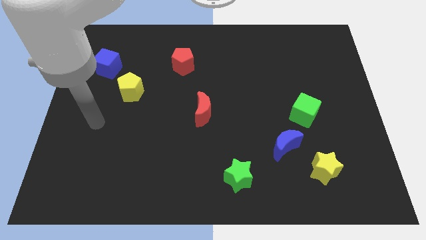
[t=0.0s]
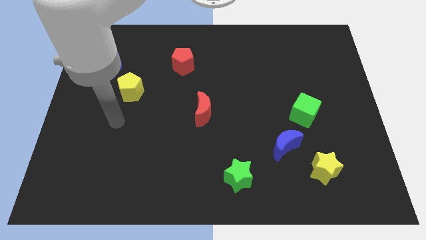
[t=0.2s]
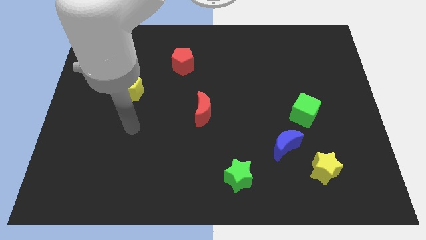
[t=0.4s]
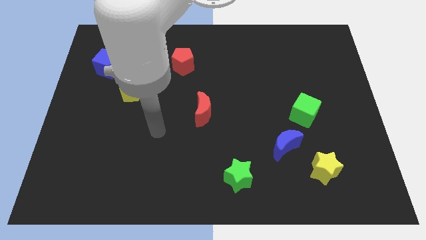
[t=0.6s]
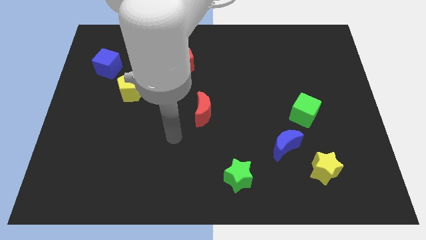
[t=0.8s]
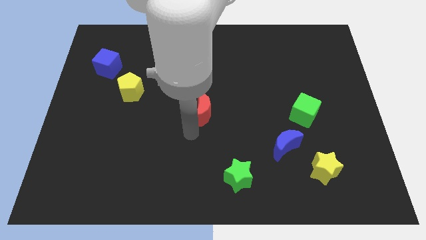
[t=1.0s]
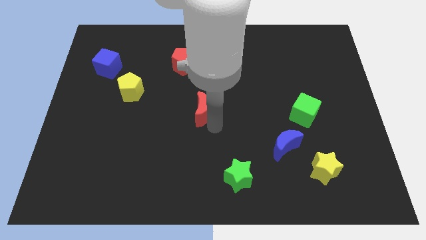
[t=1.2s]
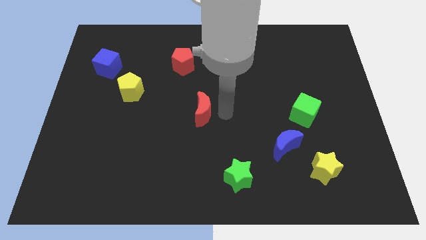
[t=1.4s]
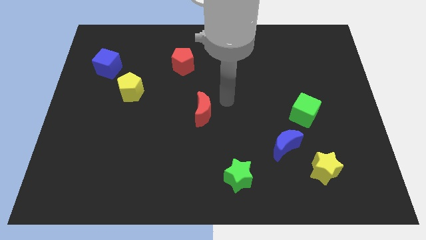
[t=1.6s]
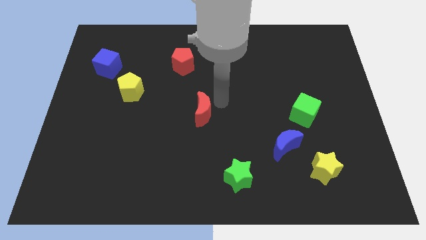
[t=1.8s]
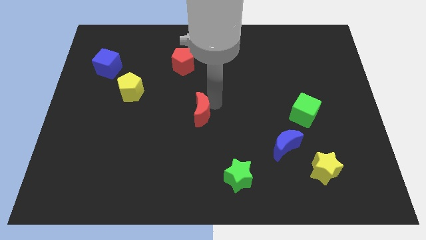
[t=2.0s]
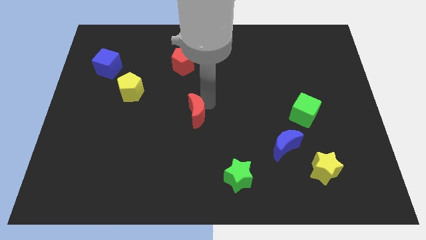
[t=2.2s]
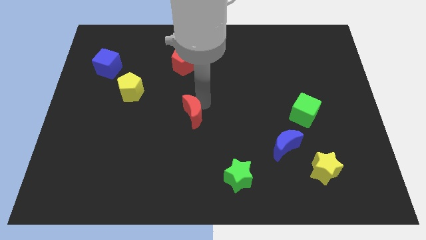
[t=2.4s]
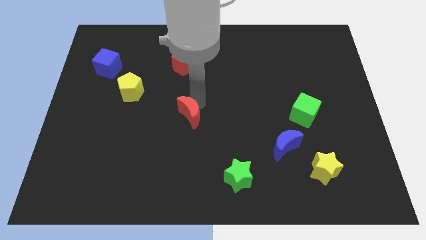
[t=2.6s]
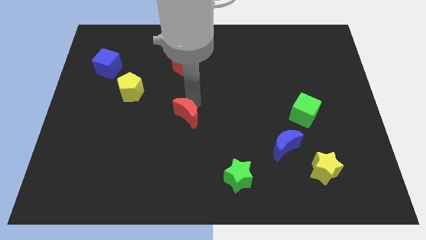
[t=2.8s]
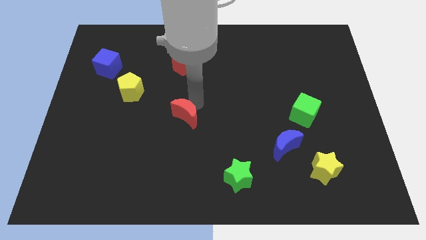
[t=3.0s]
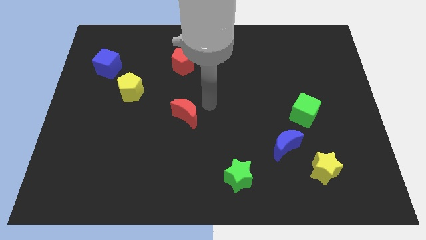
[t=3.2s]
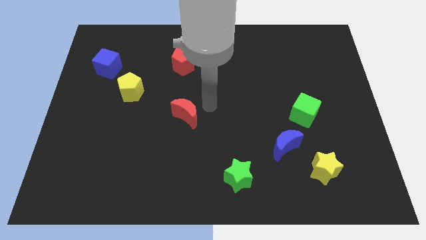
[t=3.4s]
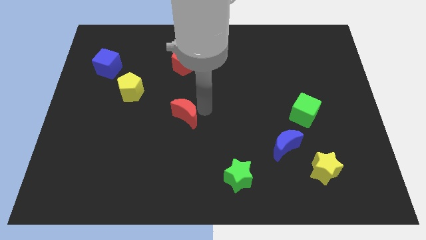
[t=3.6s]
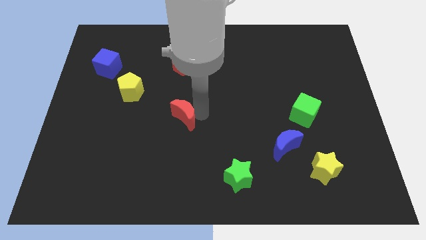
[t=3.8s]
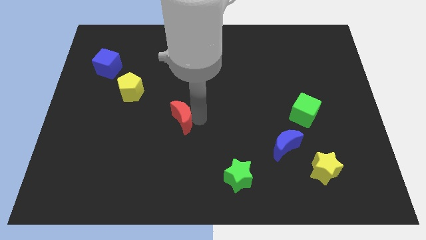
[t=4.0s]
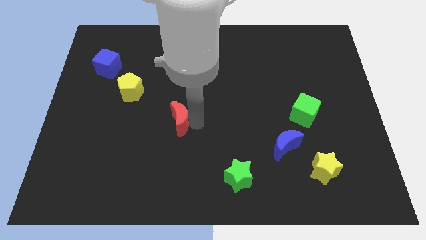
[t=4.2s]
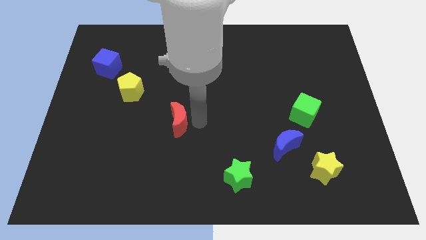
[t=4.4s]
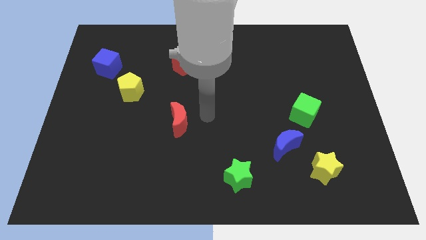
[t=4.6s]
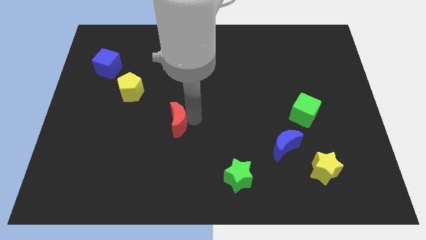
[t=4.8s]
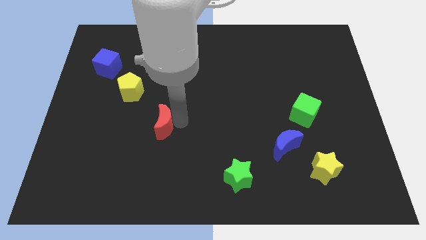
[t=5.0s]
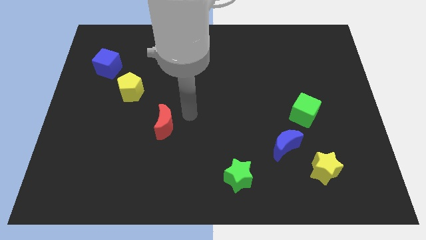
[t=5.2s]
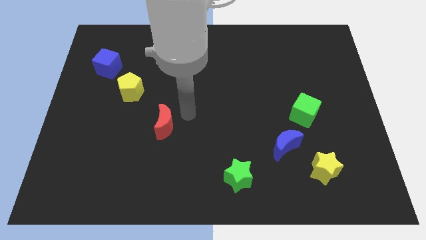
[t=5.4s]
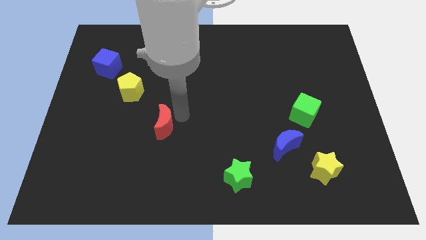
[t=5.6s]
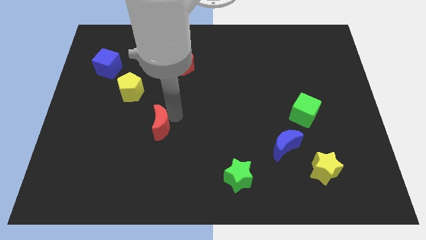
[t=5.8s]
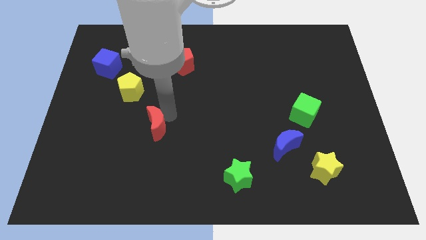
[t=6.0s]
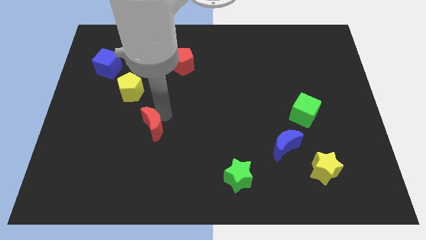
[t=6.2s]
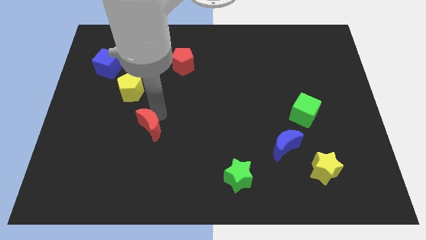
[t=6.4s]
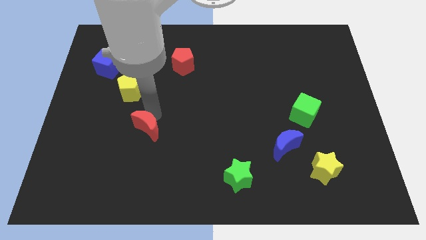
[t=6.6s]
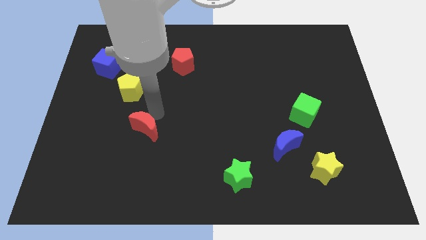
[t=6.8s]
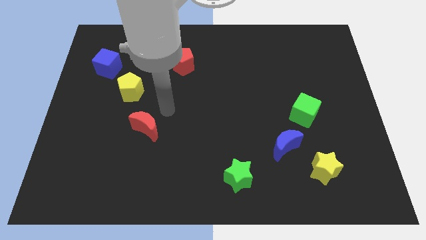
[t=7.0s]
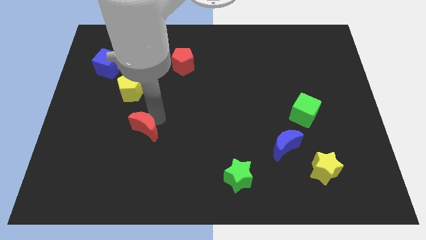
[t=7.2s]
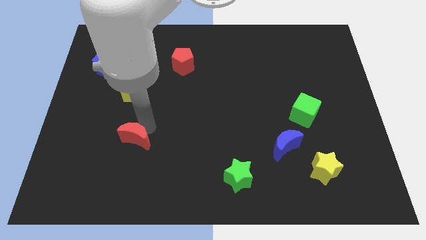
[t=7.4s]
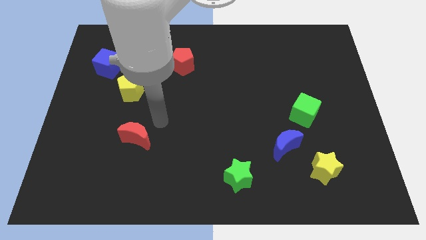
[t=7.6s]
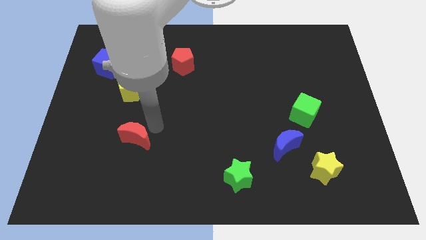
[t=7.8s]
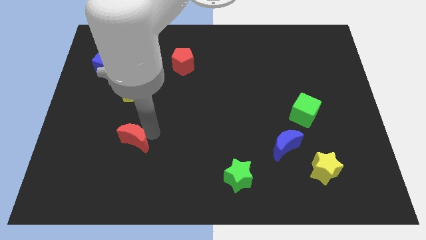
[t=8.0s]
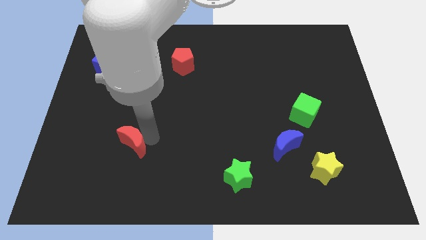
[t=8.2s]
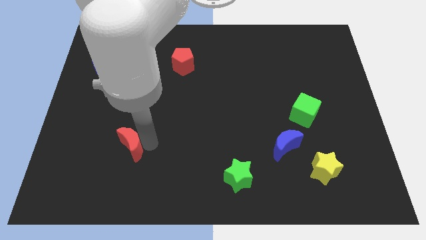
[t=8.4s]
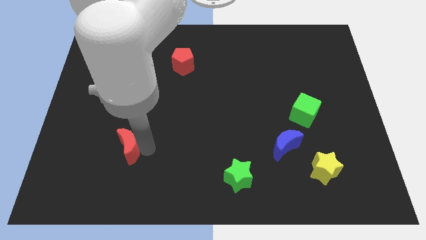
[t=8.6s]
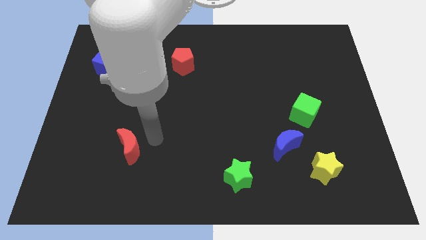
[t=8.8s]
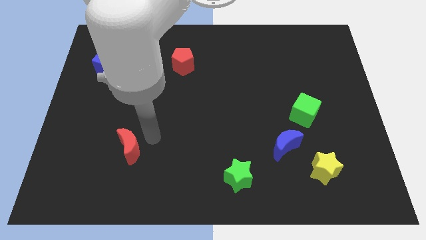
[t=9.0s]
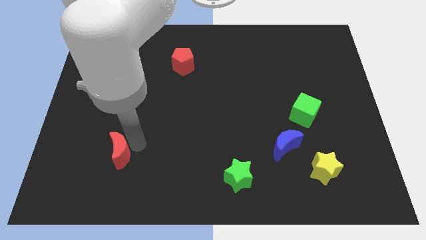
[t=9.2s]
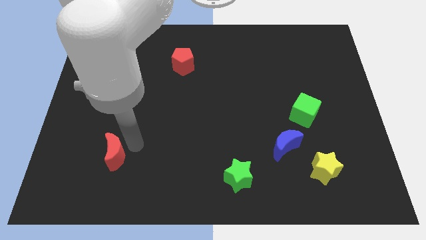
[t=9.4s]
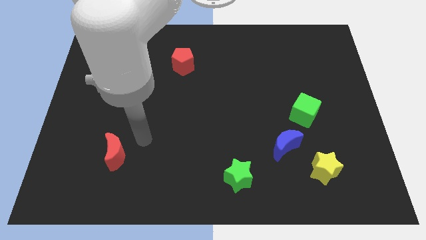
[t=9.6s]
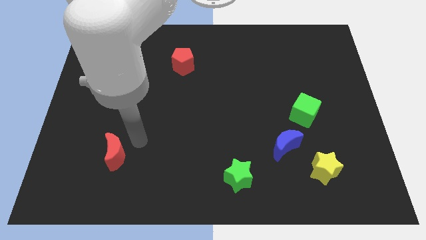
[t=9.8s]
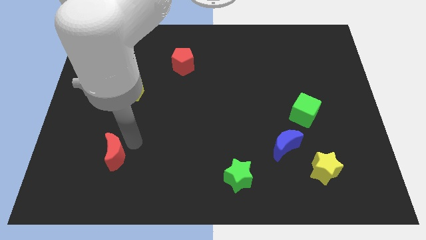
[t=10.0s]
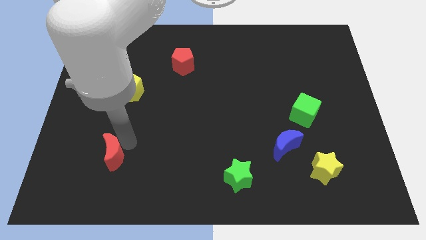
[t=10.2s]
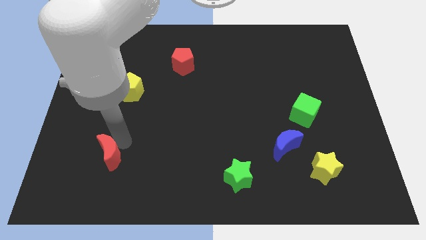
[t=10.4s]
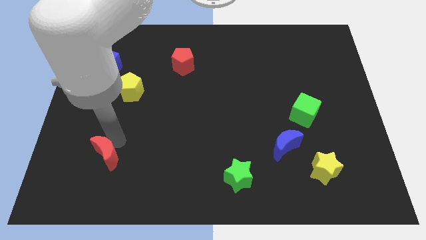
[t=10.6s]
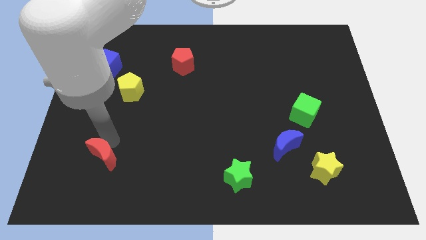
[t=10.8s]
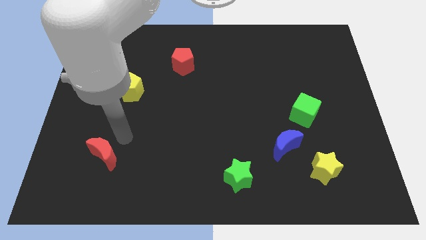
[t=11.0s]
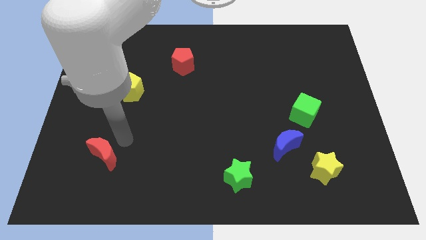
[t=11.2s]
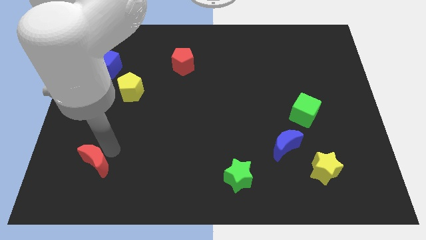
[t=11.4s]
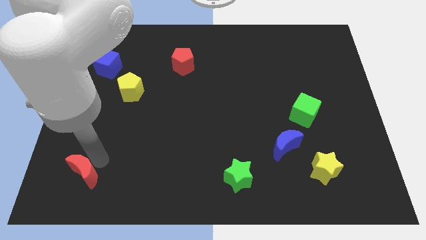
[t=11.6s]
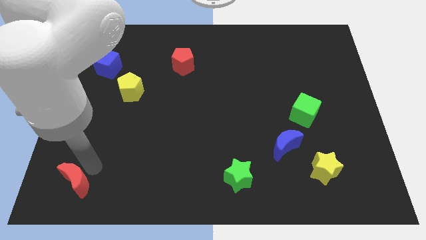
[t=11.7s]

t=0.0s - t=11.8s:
move the red moon to the lower left corner

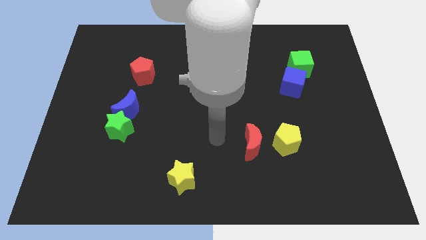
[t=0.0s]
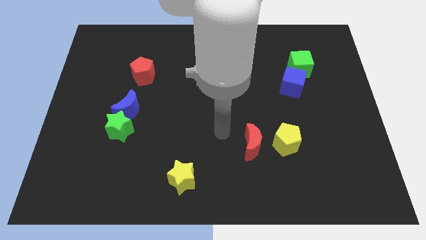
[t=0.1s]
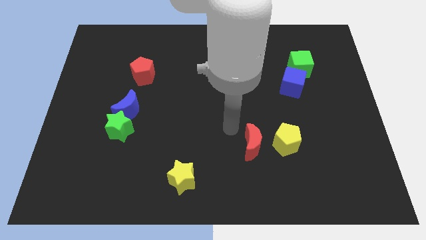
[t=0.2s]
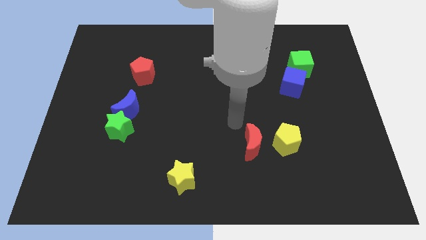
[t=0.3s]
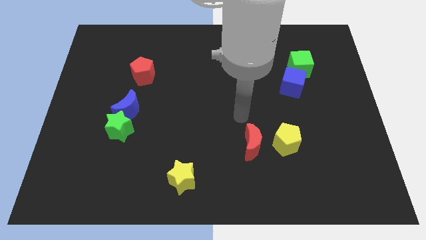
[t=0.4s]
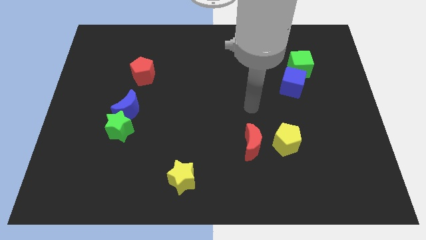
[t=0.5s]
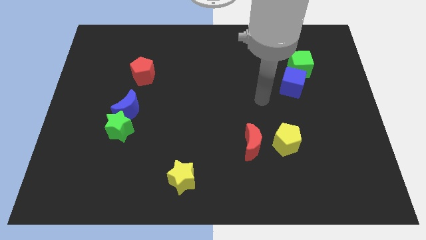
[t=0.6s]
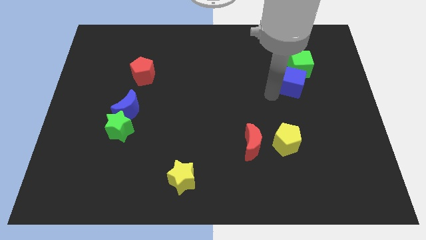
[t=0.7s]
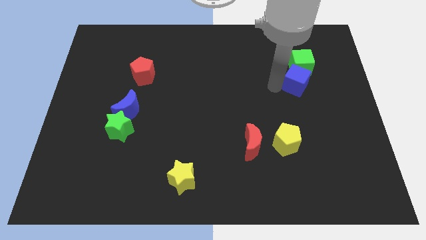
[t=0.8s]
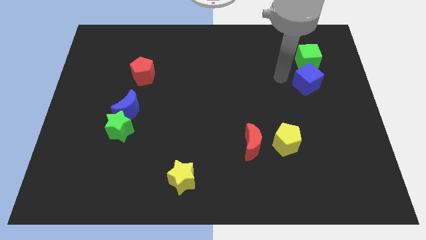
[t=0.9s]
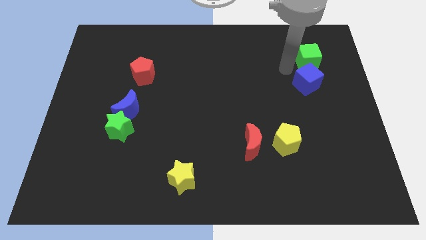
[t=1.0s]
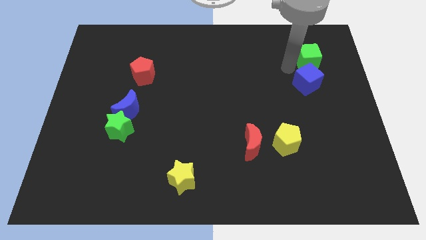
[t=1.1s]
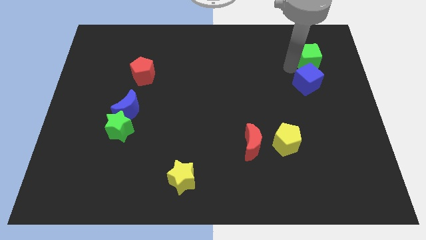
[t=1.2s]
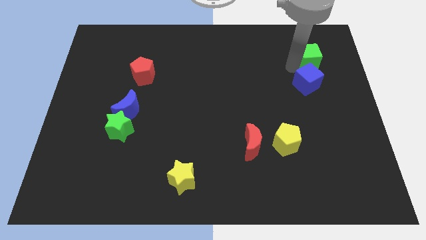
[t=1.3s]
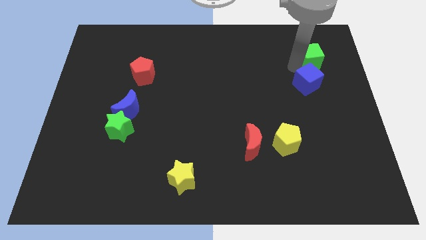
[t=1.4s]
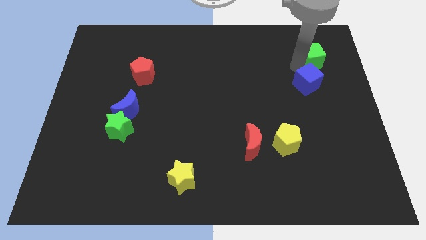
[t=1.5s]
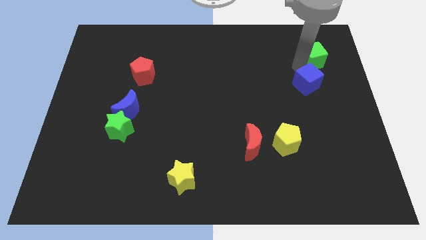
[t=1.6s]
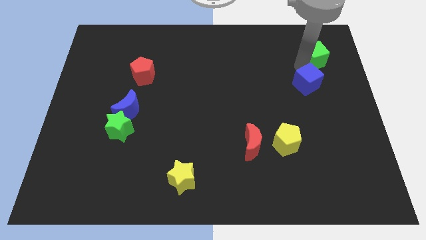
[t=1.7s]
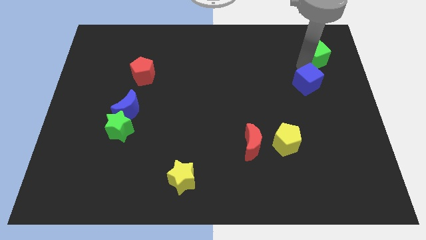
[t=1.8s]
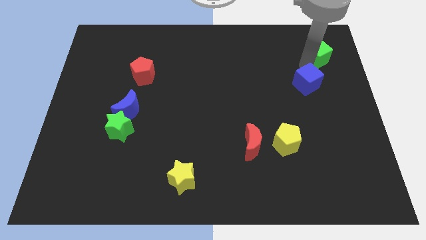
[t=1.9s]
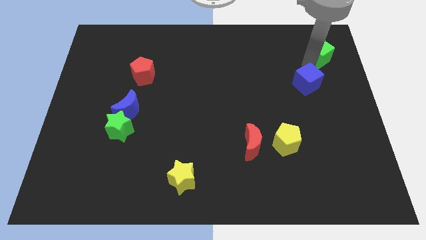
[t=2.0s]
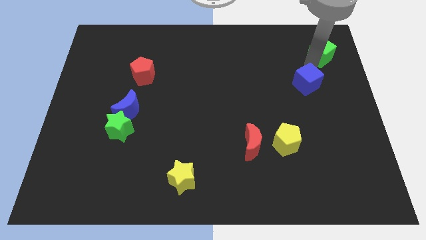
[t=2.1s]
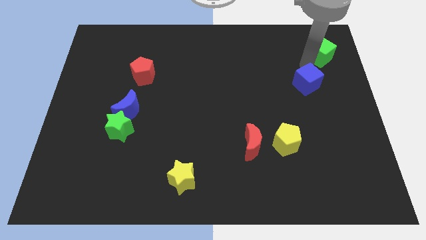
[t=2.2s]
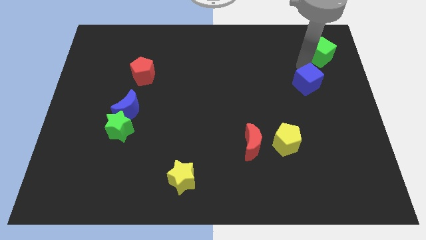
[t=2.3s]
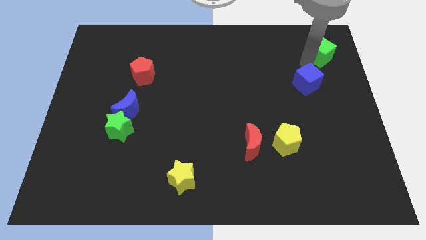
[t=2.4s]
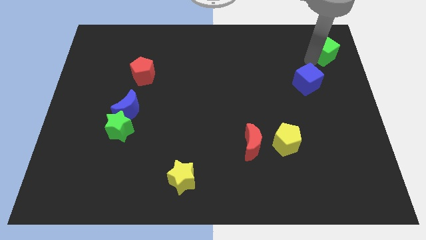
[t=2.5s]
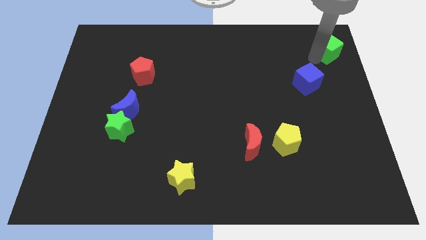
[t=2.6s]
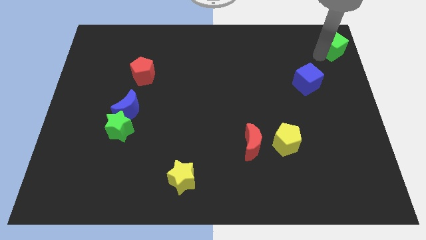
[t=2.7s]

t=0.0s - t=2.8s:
slide the green cube to the top right of the board
